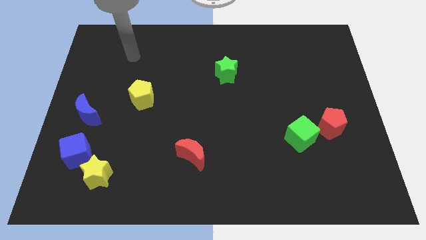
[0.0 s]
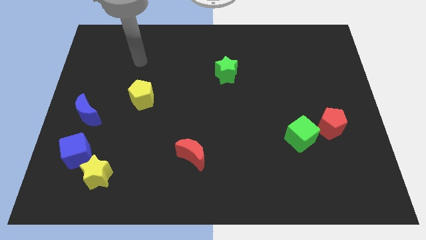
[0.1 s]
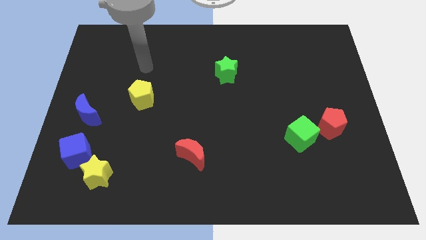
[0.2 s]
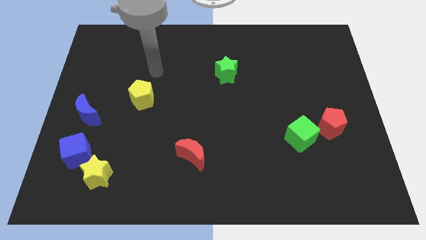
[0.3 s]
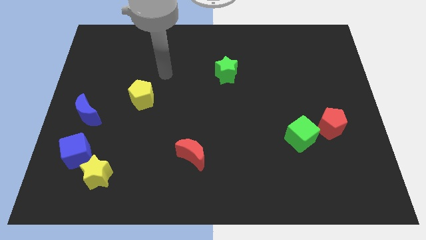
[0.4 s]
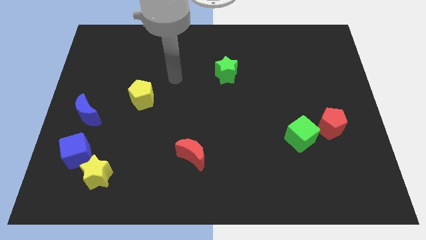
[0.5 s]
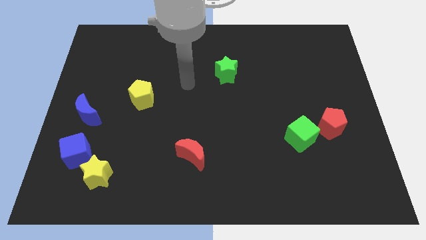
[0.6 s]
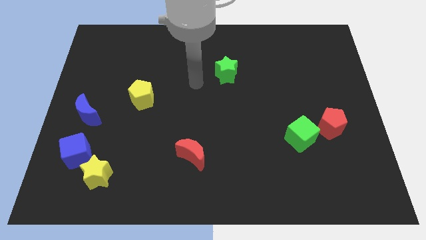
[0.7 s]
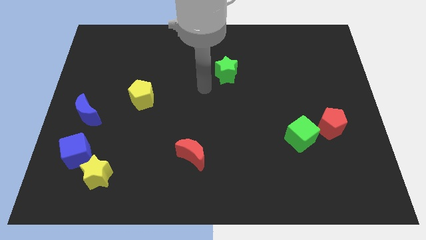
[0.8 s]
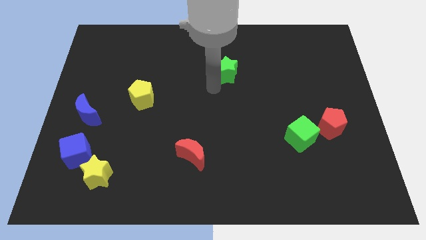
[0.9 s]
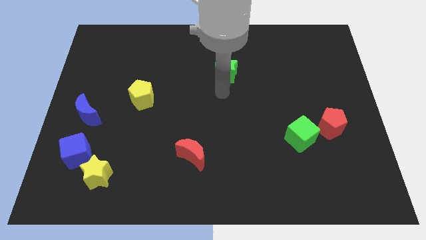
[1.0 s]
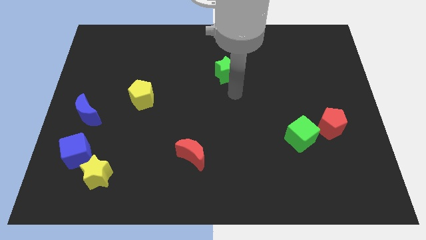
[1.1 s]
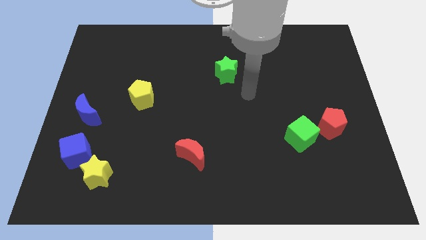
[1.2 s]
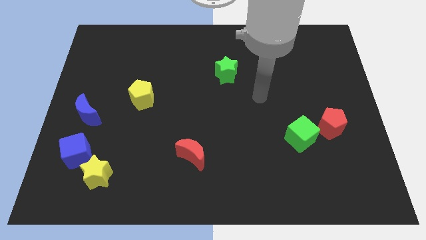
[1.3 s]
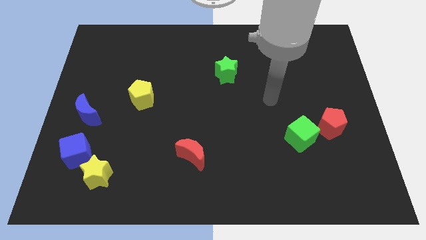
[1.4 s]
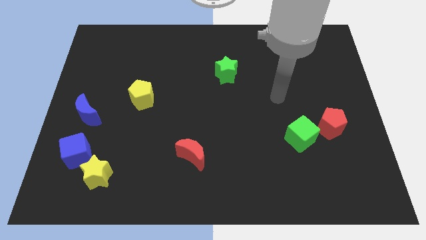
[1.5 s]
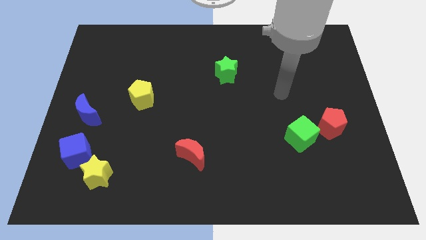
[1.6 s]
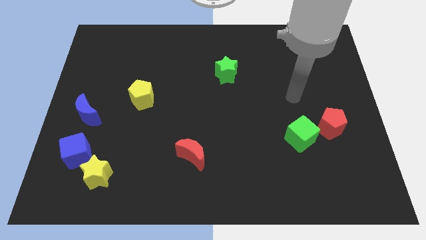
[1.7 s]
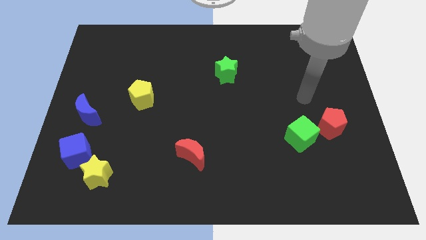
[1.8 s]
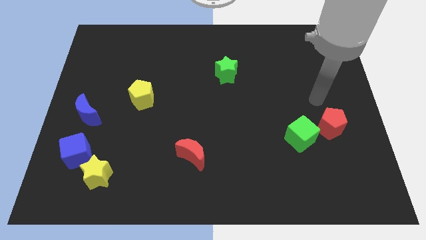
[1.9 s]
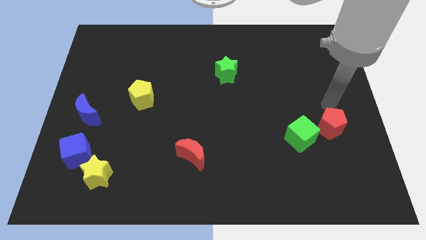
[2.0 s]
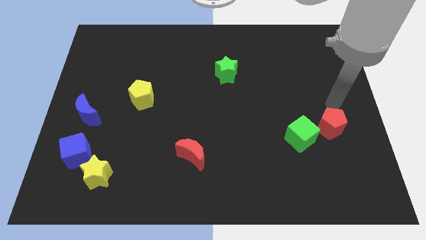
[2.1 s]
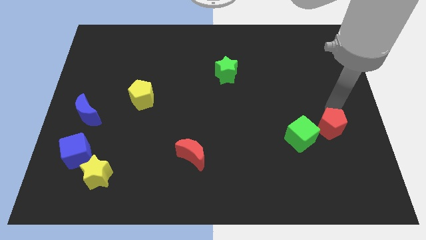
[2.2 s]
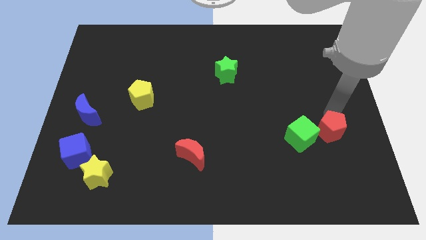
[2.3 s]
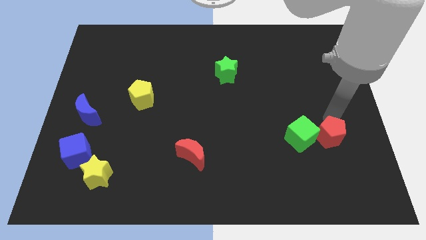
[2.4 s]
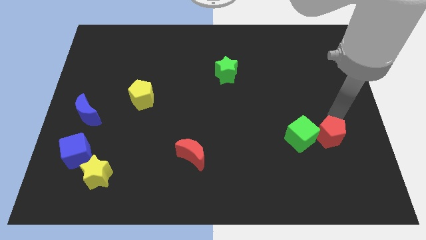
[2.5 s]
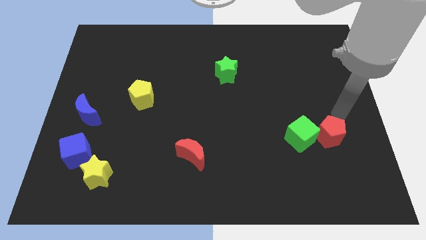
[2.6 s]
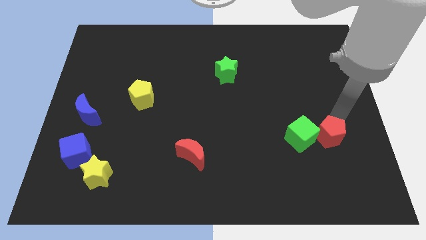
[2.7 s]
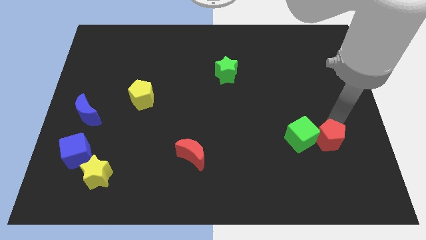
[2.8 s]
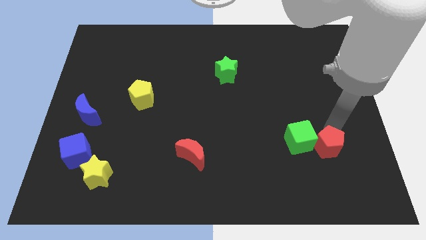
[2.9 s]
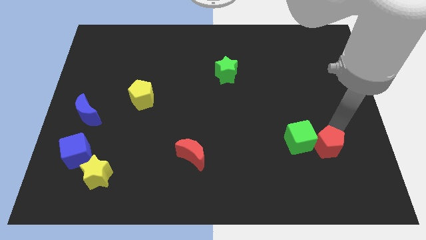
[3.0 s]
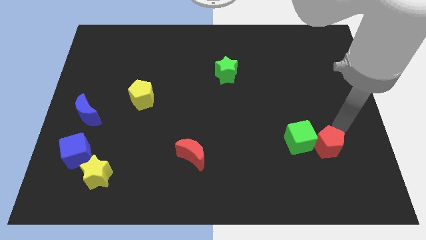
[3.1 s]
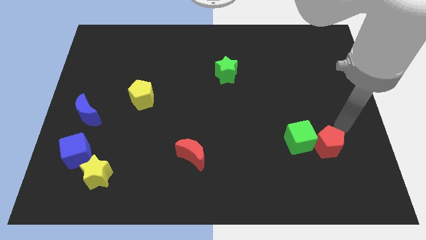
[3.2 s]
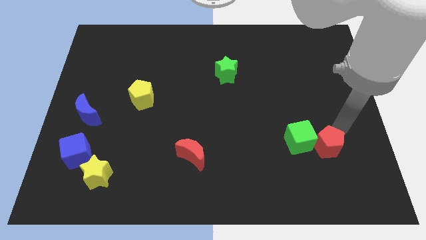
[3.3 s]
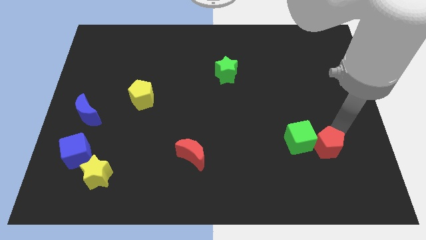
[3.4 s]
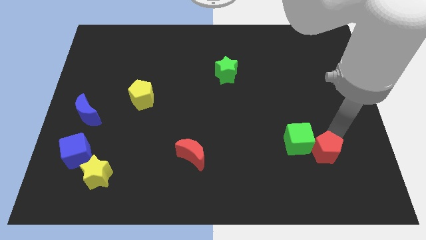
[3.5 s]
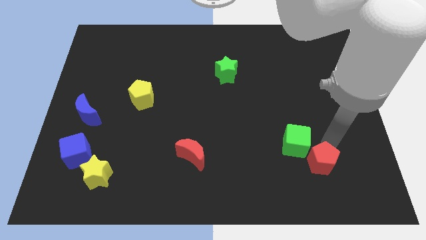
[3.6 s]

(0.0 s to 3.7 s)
push the red pentagon a little down and to the left diagonally

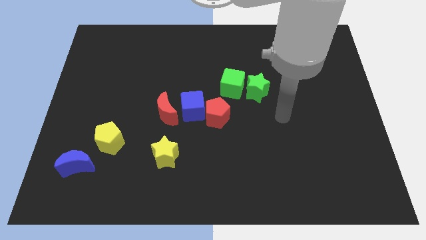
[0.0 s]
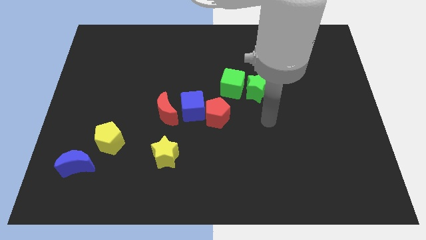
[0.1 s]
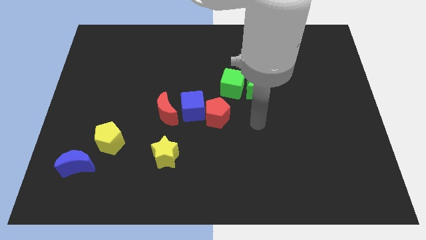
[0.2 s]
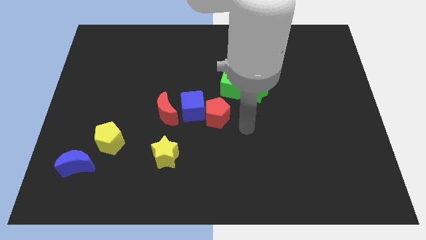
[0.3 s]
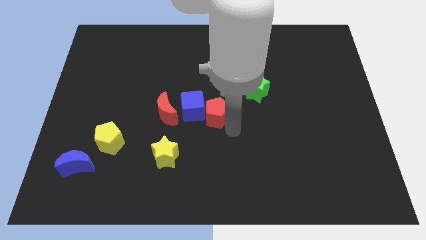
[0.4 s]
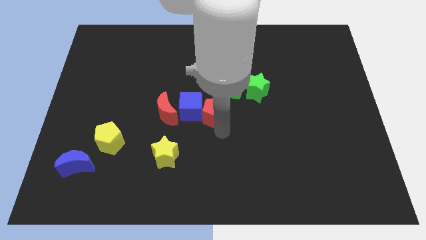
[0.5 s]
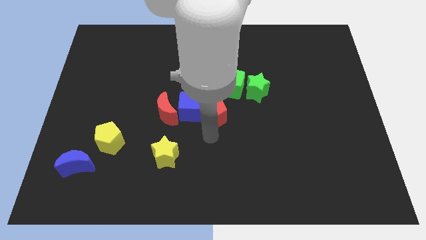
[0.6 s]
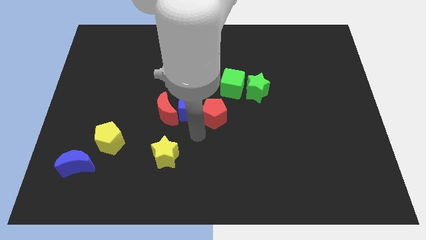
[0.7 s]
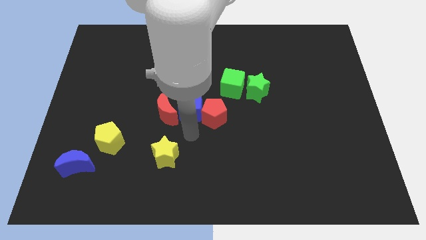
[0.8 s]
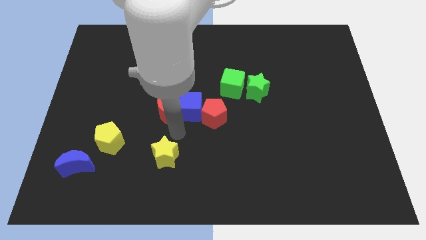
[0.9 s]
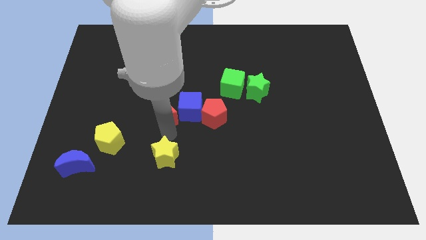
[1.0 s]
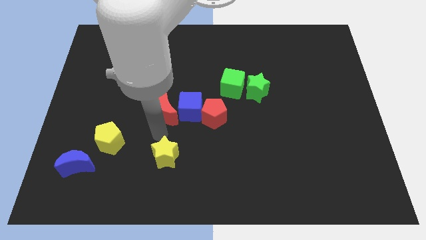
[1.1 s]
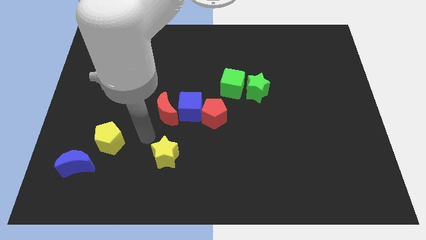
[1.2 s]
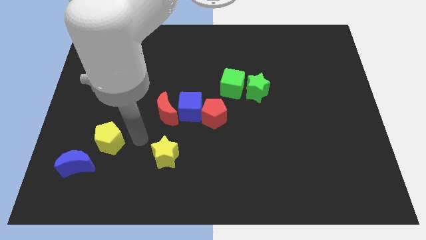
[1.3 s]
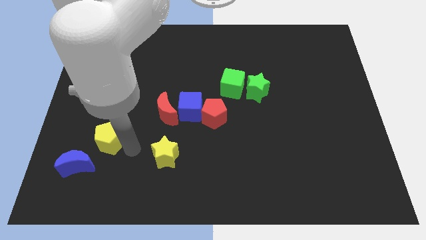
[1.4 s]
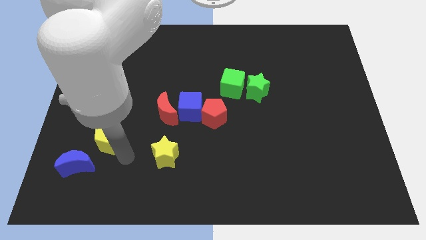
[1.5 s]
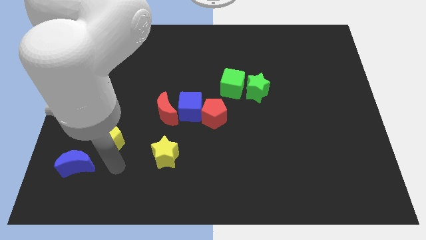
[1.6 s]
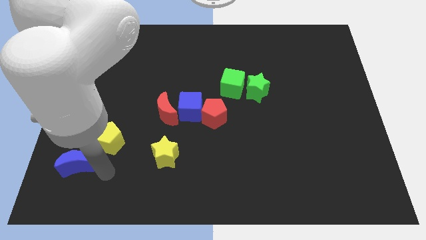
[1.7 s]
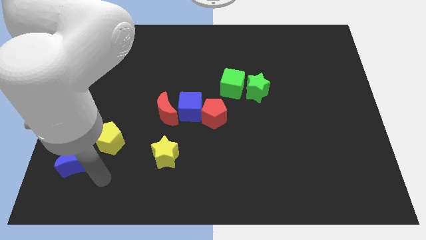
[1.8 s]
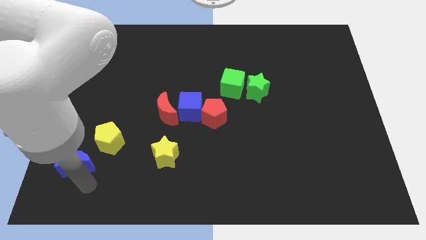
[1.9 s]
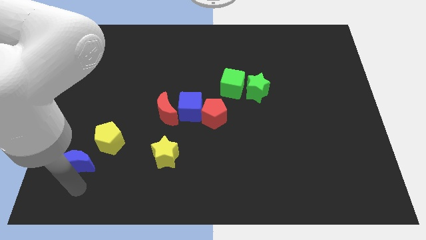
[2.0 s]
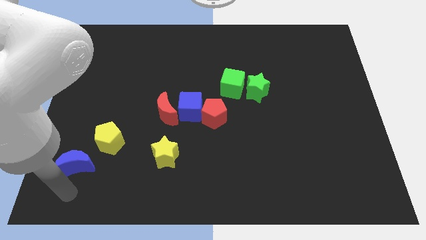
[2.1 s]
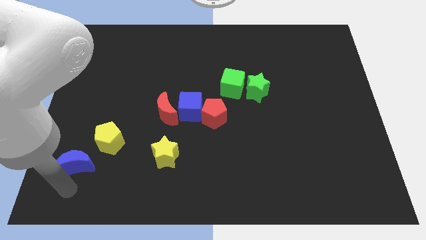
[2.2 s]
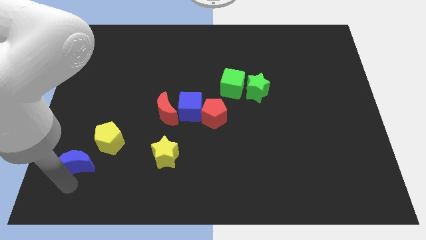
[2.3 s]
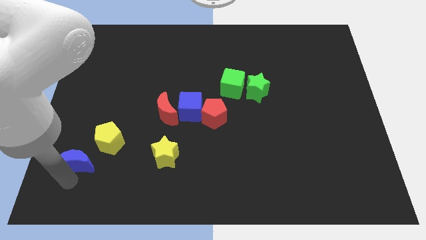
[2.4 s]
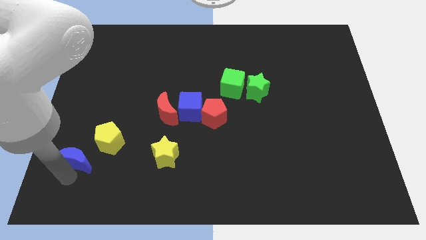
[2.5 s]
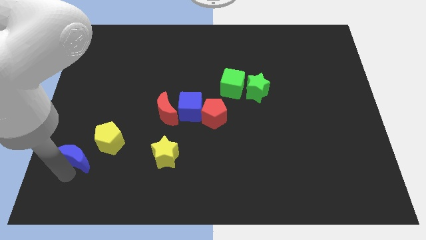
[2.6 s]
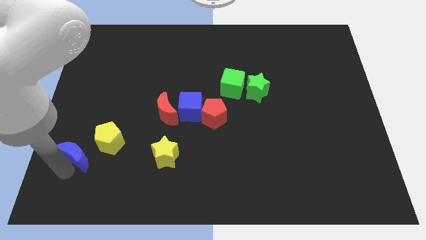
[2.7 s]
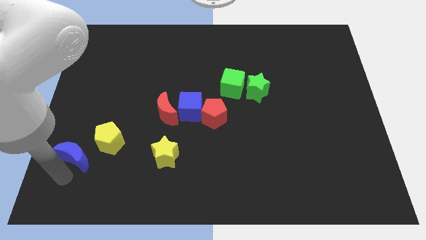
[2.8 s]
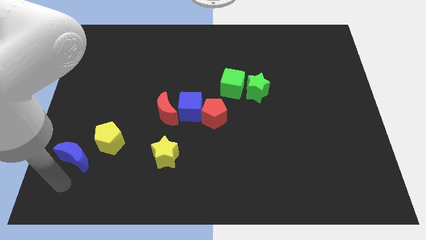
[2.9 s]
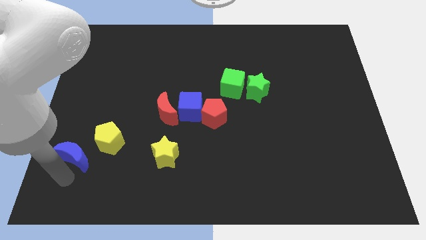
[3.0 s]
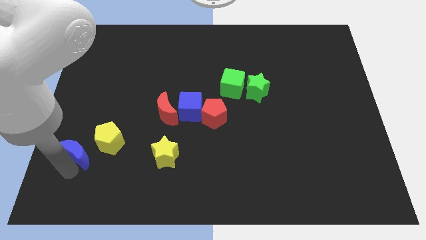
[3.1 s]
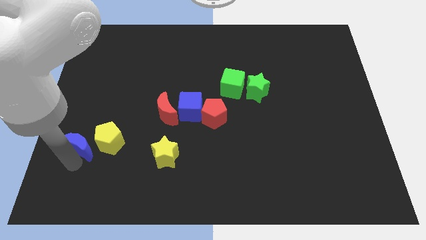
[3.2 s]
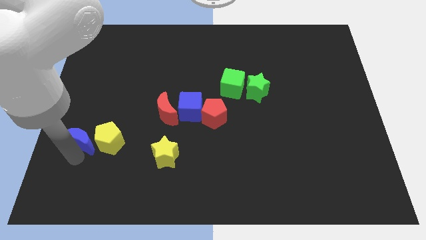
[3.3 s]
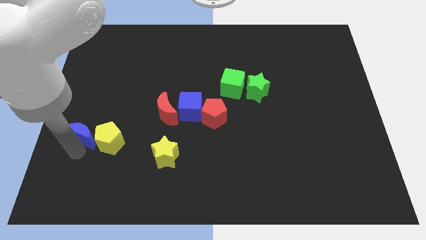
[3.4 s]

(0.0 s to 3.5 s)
push the blue moon a little bit upwards

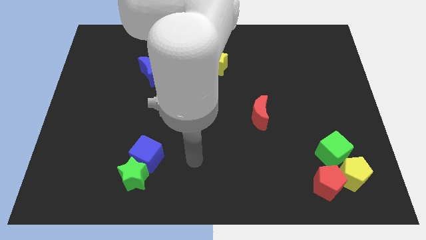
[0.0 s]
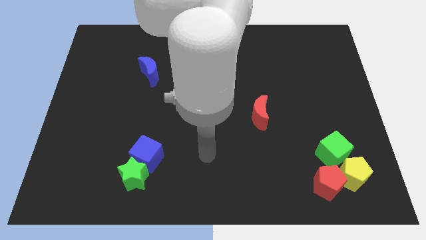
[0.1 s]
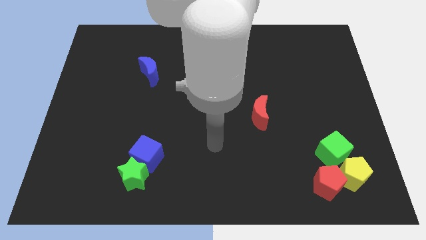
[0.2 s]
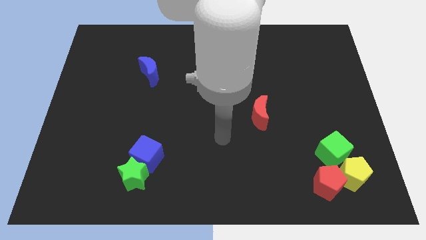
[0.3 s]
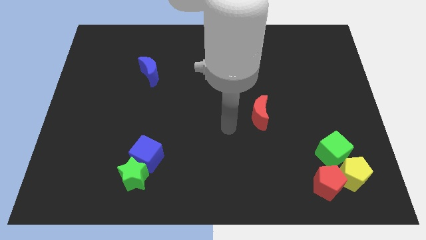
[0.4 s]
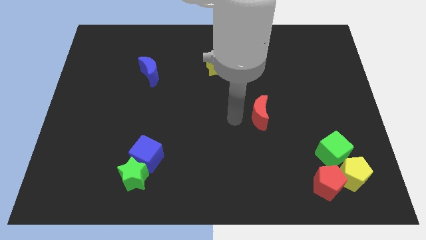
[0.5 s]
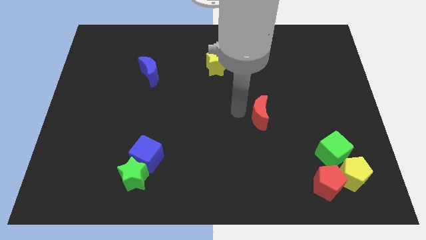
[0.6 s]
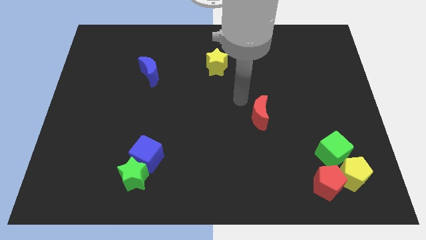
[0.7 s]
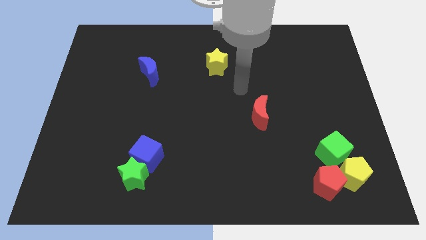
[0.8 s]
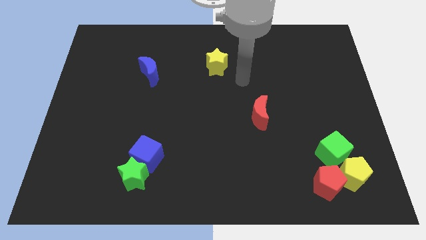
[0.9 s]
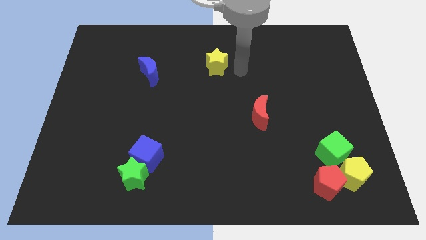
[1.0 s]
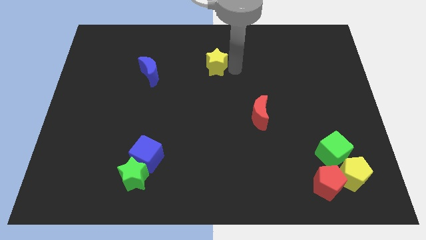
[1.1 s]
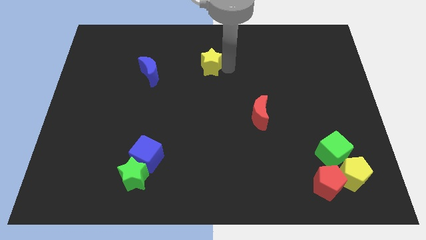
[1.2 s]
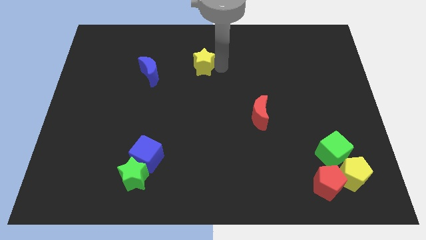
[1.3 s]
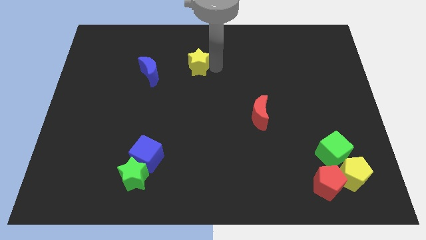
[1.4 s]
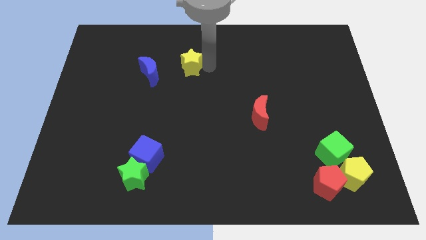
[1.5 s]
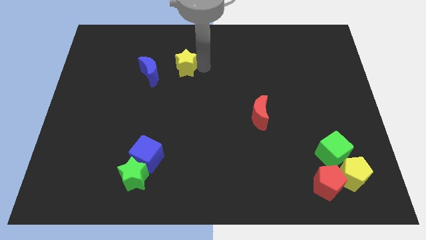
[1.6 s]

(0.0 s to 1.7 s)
slightly slide the yellow star left
